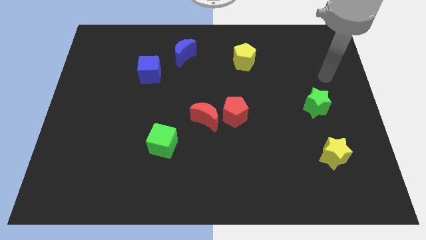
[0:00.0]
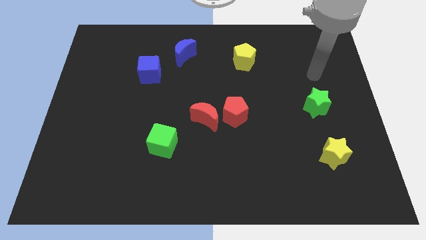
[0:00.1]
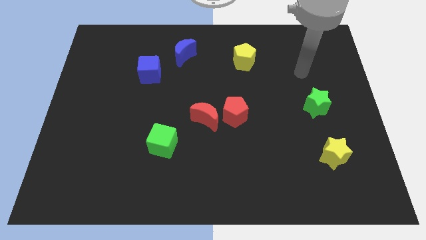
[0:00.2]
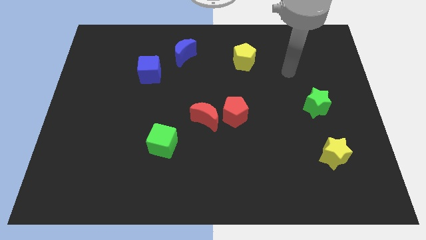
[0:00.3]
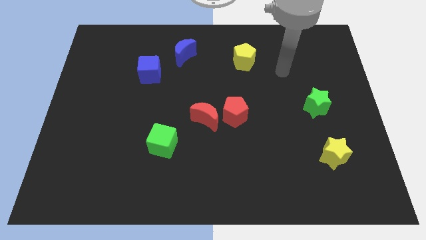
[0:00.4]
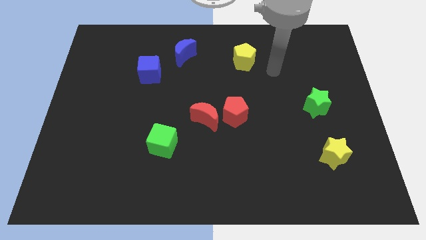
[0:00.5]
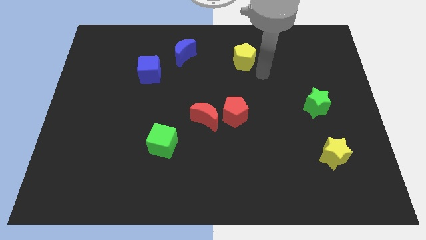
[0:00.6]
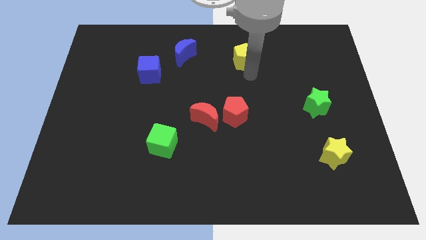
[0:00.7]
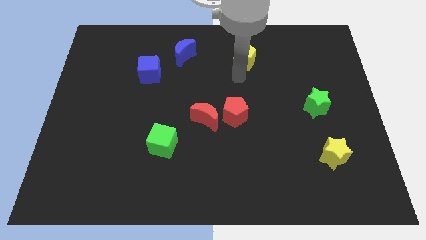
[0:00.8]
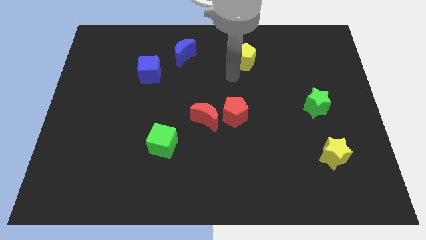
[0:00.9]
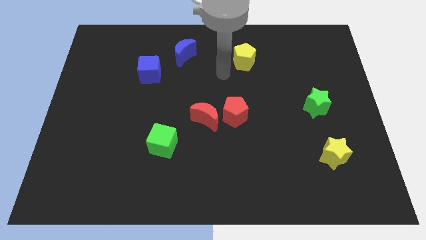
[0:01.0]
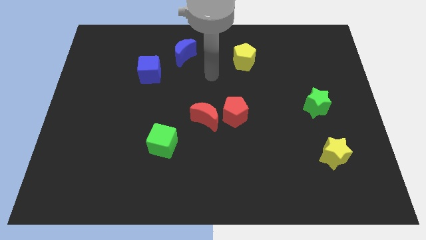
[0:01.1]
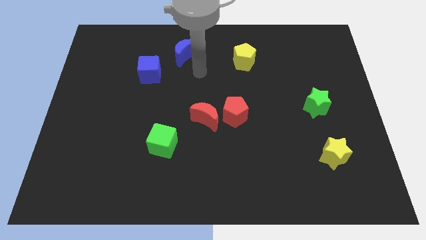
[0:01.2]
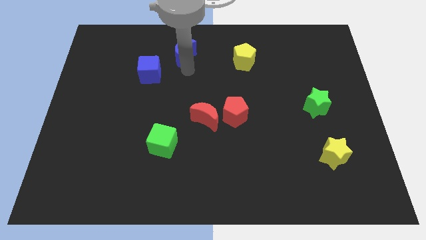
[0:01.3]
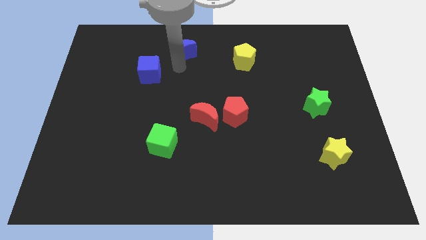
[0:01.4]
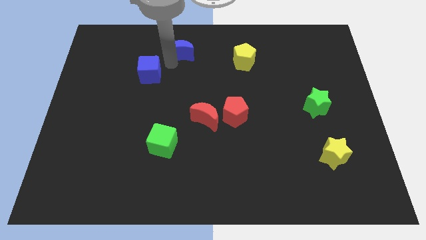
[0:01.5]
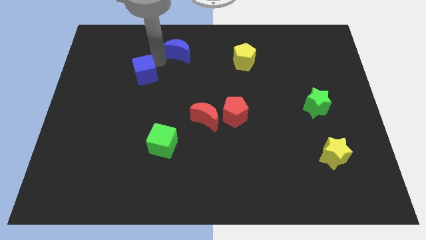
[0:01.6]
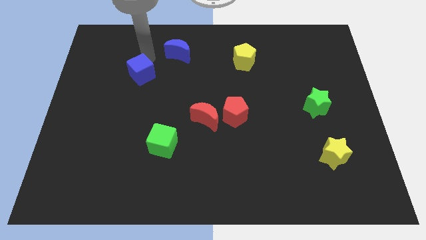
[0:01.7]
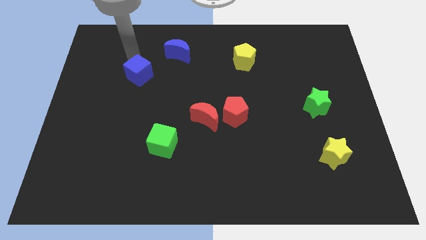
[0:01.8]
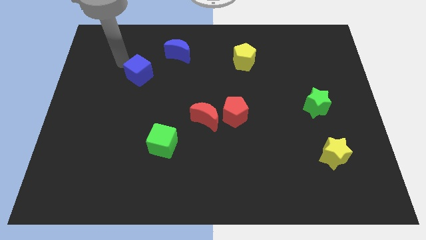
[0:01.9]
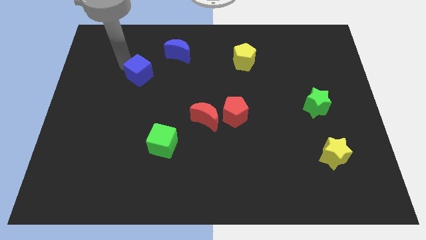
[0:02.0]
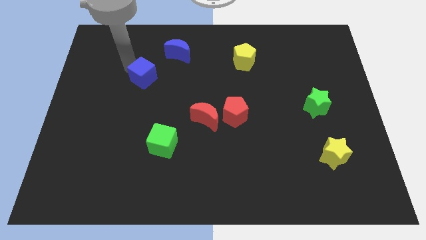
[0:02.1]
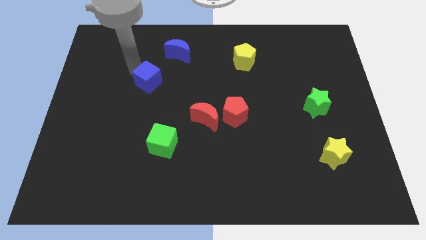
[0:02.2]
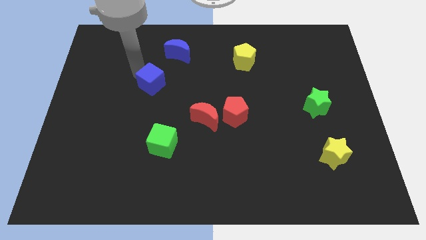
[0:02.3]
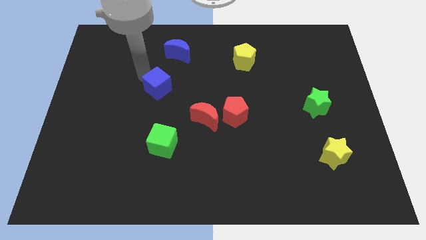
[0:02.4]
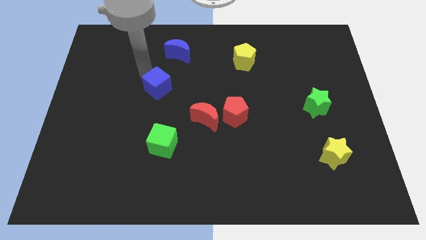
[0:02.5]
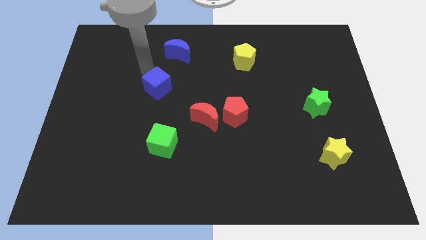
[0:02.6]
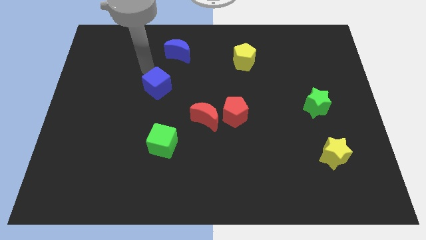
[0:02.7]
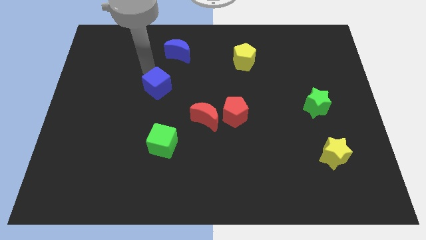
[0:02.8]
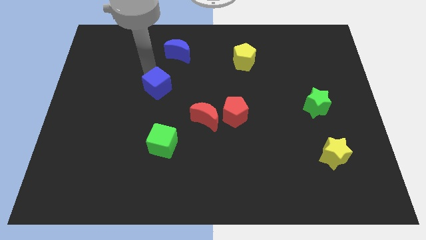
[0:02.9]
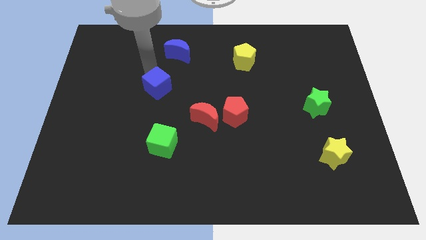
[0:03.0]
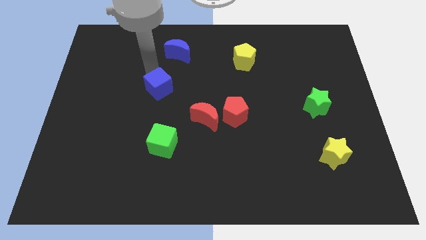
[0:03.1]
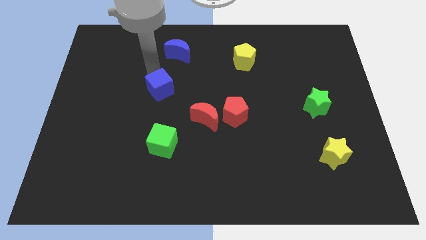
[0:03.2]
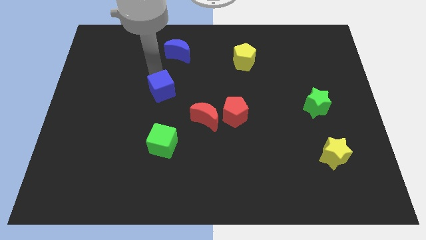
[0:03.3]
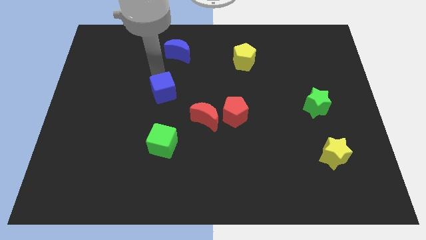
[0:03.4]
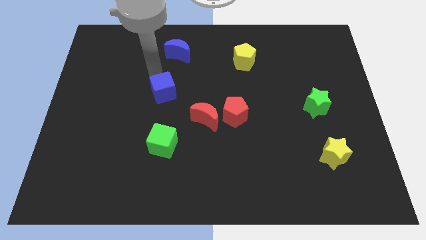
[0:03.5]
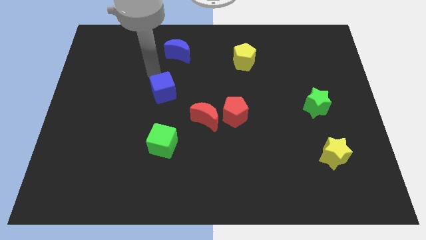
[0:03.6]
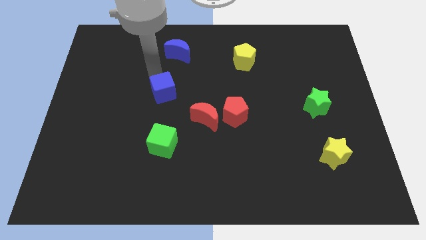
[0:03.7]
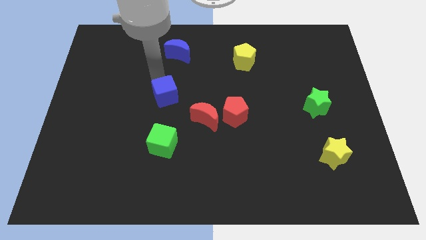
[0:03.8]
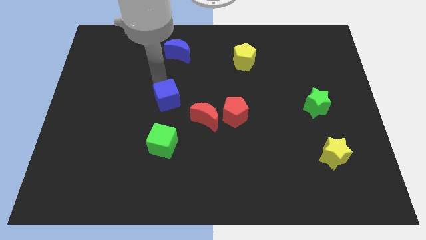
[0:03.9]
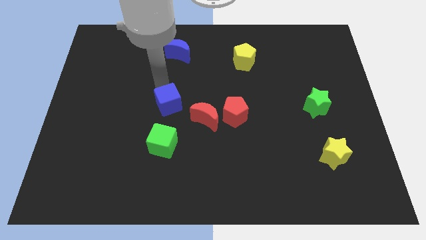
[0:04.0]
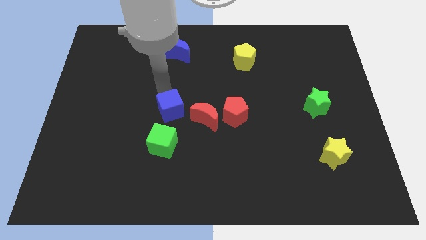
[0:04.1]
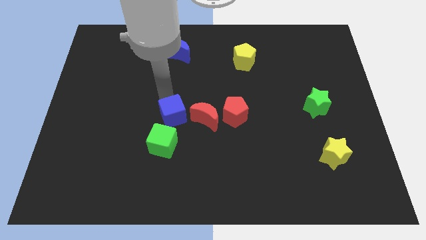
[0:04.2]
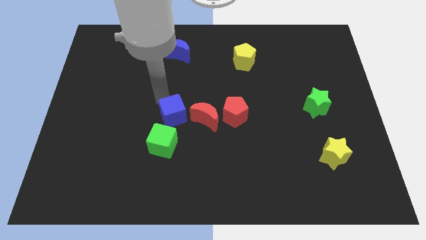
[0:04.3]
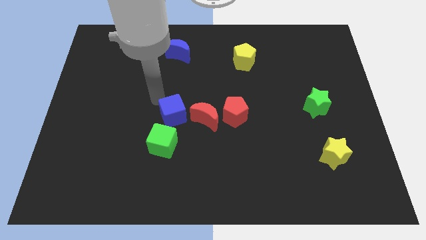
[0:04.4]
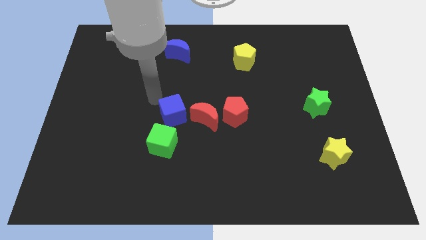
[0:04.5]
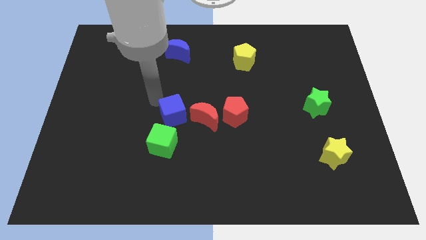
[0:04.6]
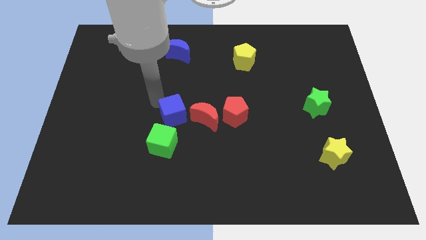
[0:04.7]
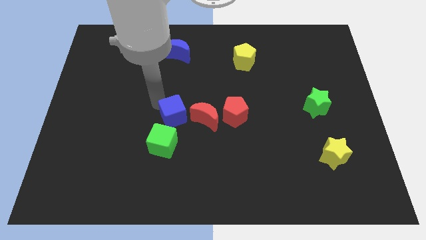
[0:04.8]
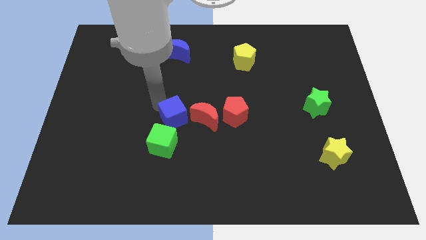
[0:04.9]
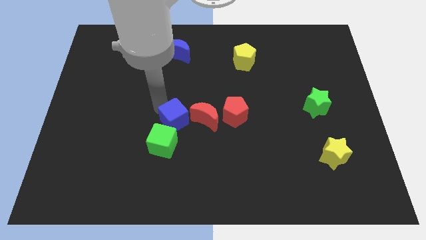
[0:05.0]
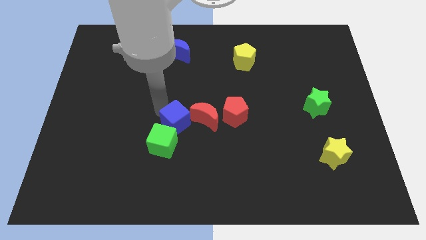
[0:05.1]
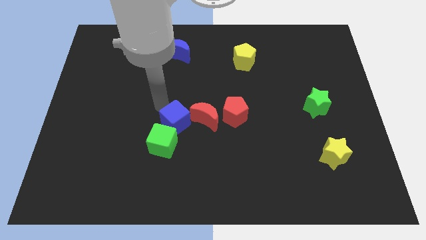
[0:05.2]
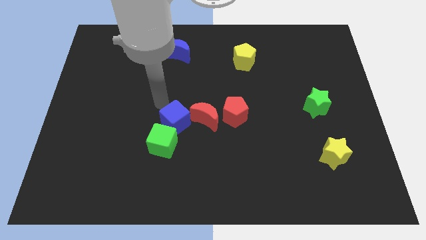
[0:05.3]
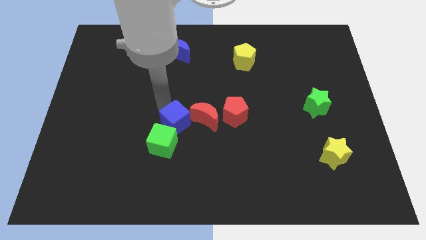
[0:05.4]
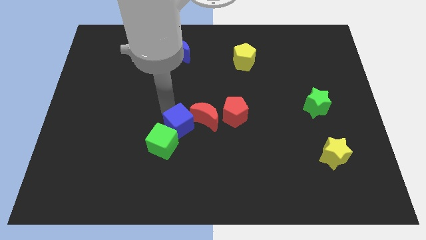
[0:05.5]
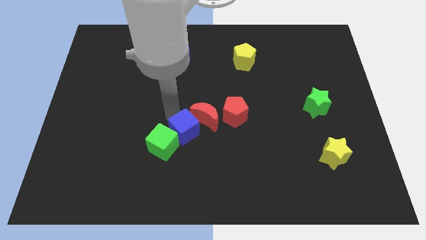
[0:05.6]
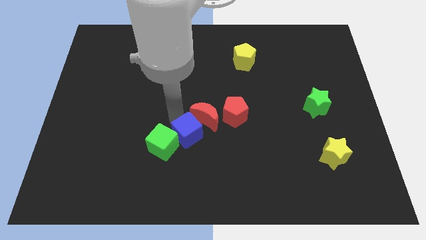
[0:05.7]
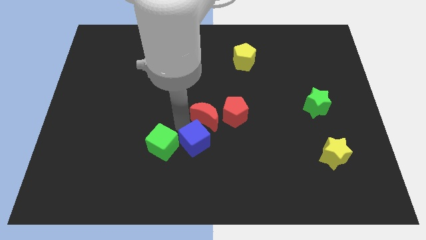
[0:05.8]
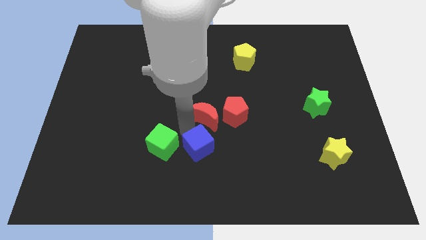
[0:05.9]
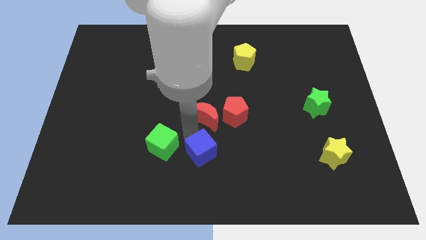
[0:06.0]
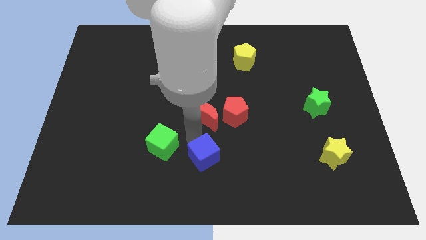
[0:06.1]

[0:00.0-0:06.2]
push the blue cube to the bottom
